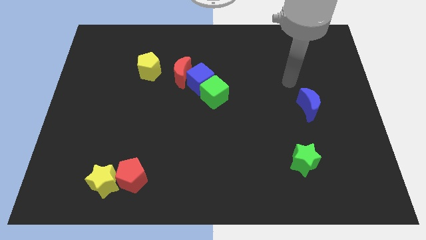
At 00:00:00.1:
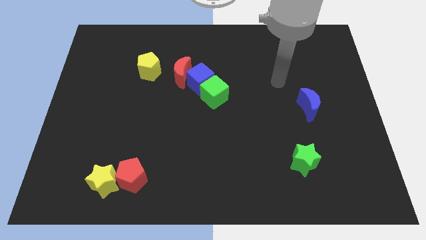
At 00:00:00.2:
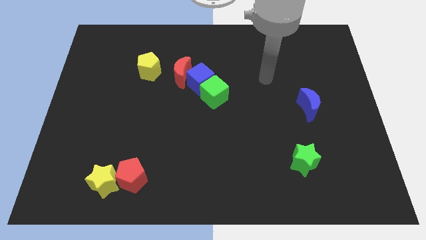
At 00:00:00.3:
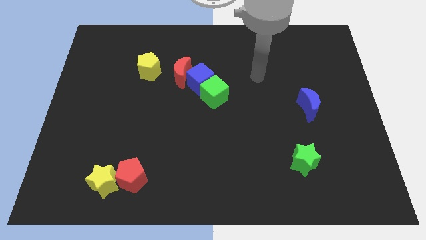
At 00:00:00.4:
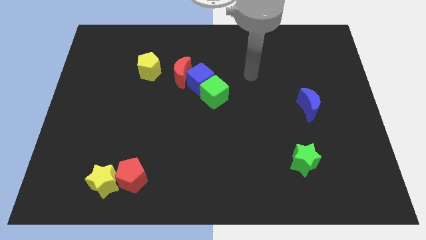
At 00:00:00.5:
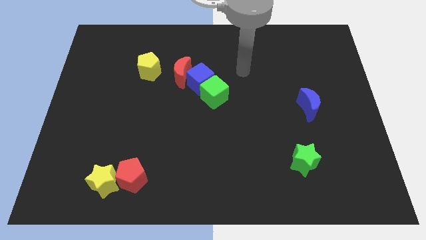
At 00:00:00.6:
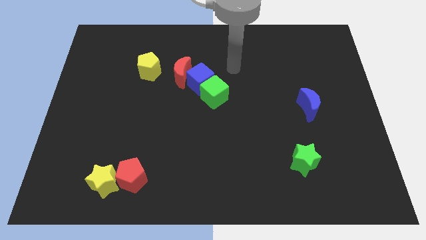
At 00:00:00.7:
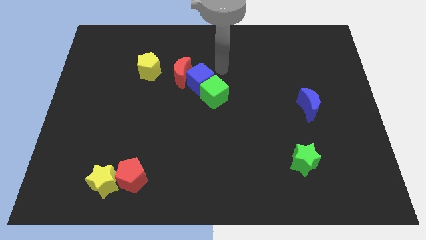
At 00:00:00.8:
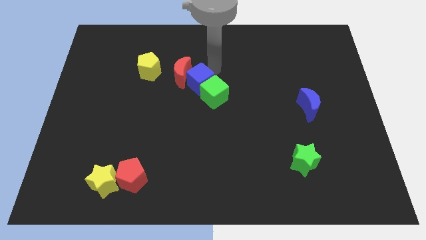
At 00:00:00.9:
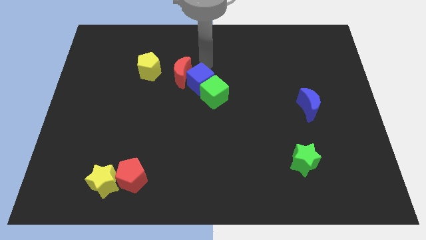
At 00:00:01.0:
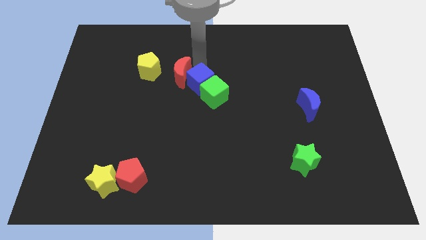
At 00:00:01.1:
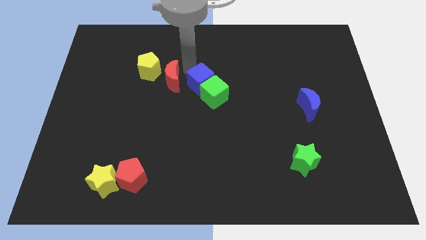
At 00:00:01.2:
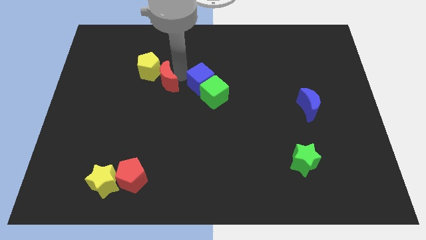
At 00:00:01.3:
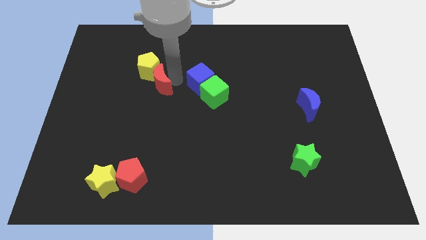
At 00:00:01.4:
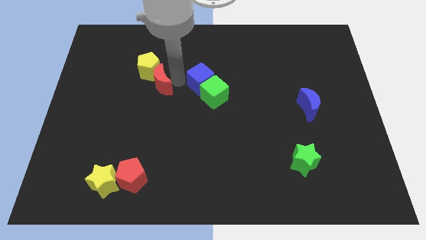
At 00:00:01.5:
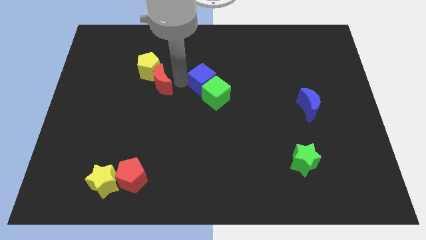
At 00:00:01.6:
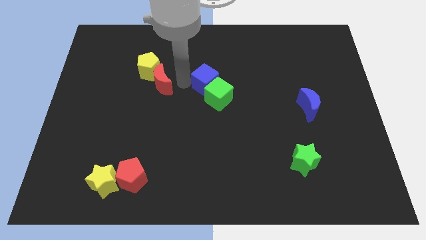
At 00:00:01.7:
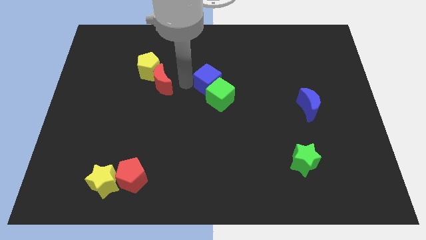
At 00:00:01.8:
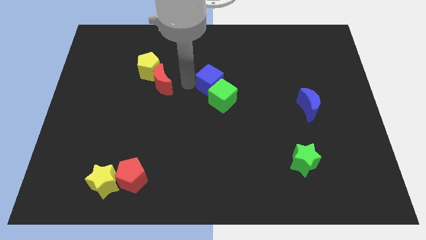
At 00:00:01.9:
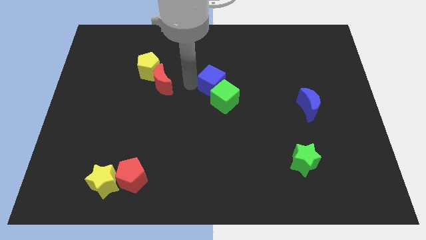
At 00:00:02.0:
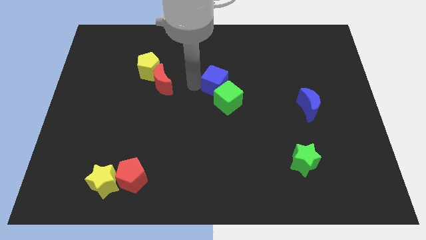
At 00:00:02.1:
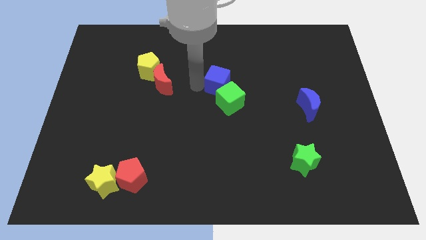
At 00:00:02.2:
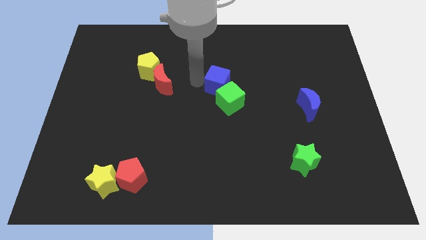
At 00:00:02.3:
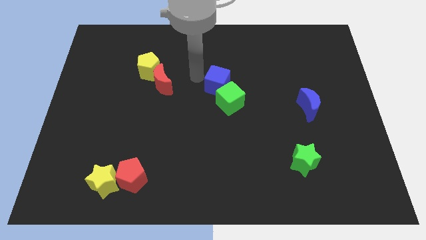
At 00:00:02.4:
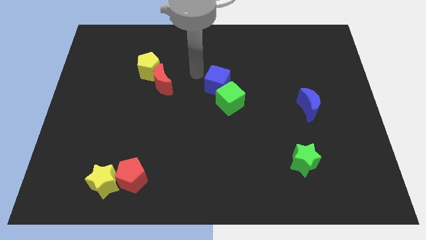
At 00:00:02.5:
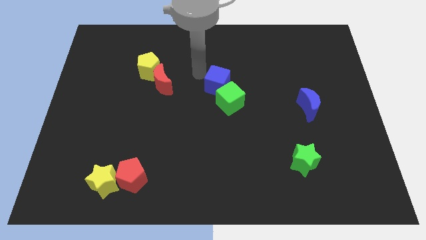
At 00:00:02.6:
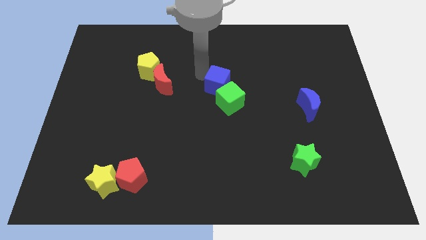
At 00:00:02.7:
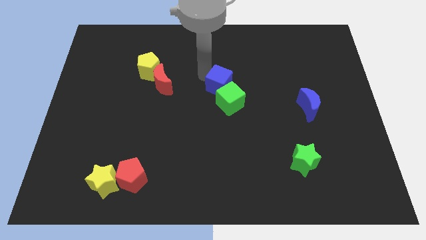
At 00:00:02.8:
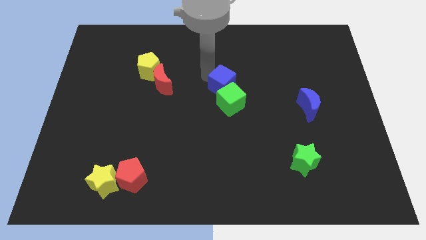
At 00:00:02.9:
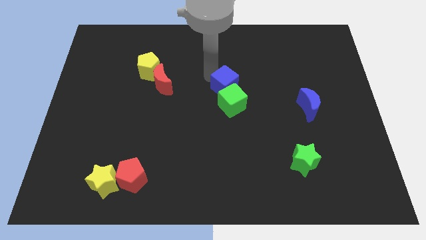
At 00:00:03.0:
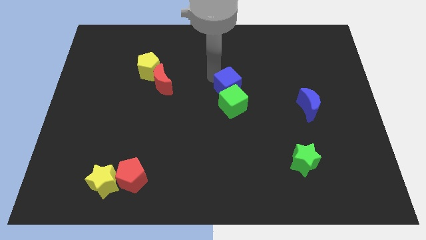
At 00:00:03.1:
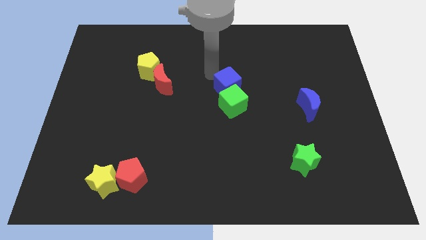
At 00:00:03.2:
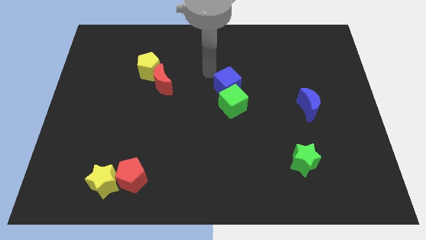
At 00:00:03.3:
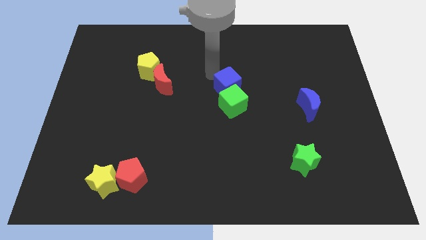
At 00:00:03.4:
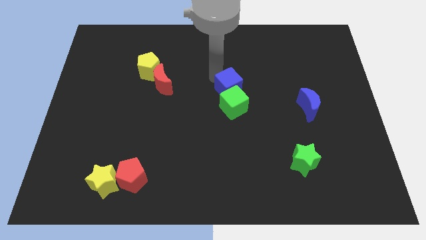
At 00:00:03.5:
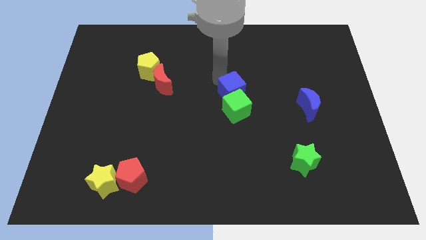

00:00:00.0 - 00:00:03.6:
move the blue cube downwards and to the right a little

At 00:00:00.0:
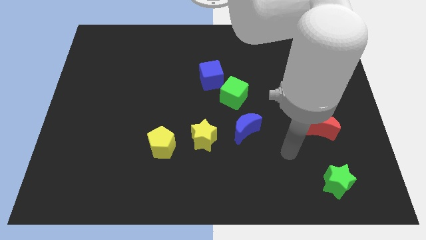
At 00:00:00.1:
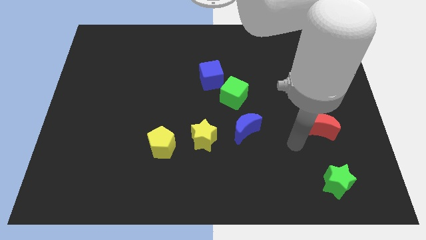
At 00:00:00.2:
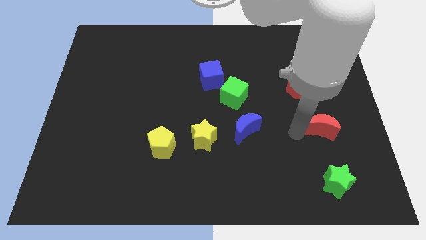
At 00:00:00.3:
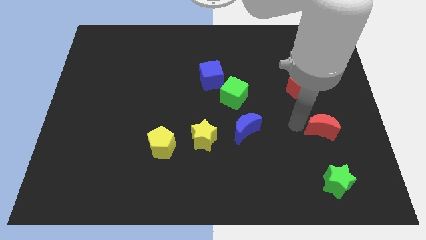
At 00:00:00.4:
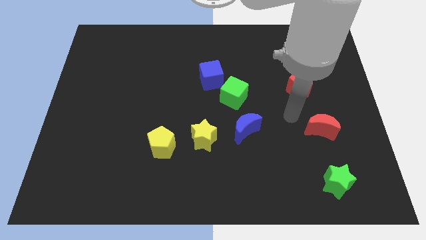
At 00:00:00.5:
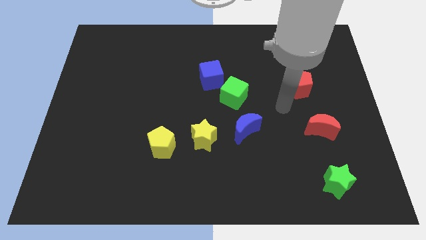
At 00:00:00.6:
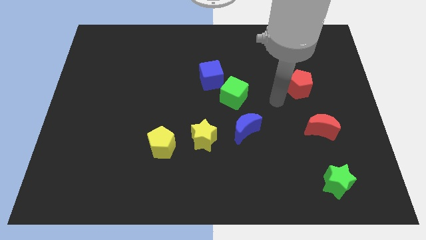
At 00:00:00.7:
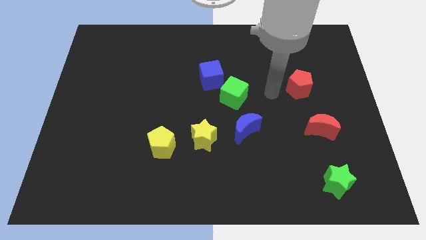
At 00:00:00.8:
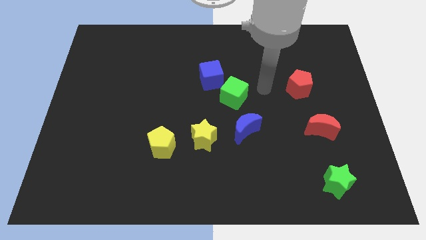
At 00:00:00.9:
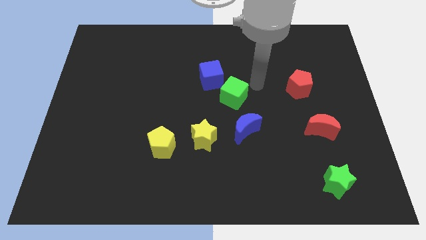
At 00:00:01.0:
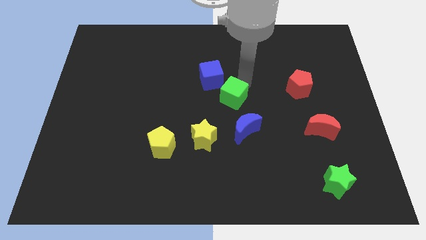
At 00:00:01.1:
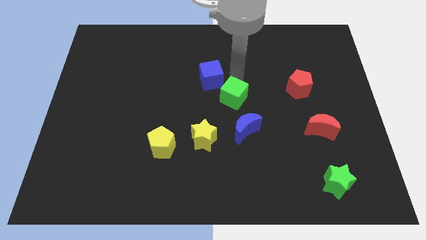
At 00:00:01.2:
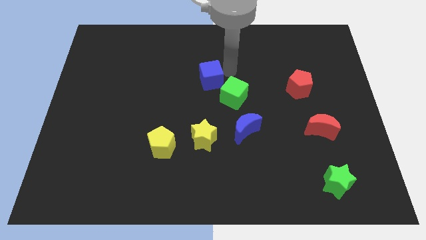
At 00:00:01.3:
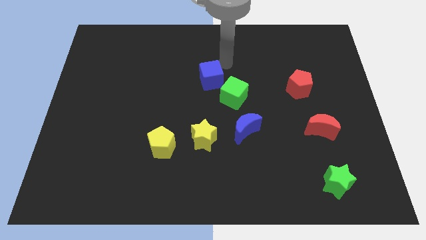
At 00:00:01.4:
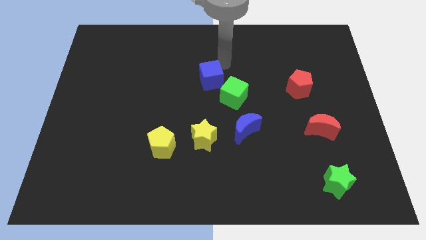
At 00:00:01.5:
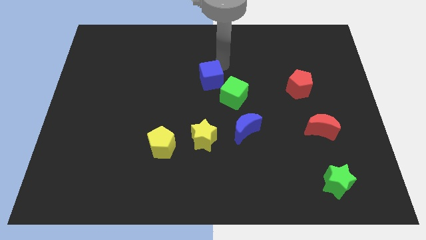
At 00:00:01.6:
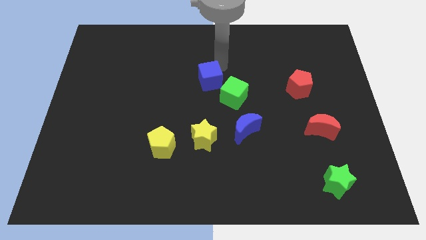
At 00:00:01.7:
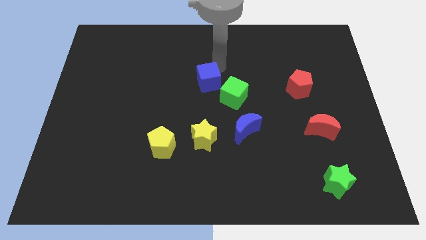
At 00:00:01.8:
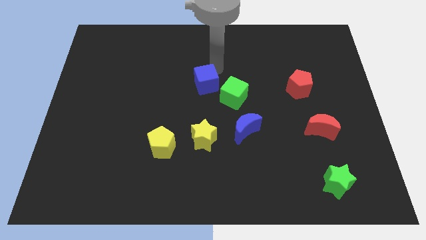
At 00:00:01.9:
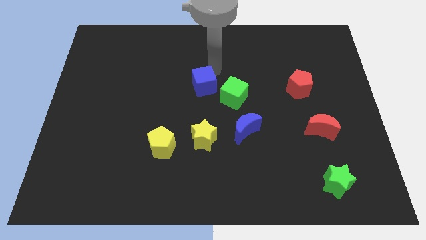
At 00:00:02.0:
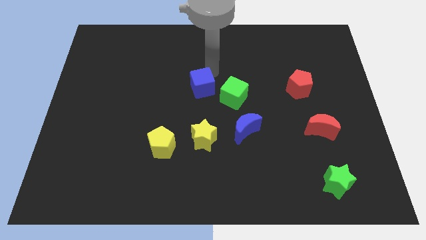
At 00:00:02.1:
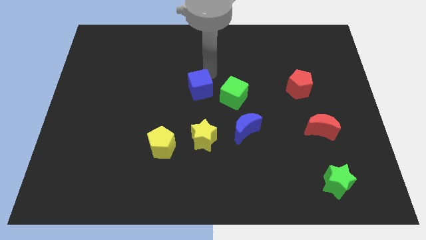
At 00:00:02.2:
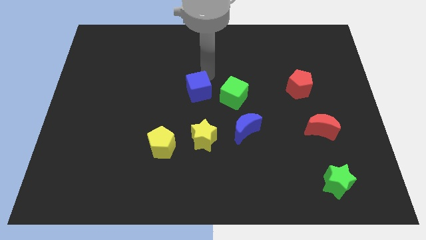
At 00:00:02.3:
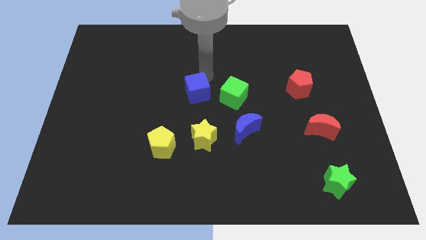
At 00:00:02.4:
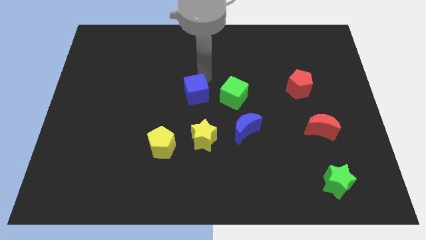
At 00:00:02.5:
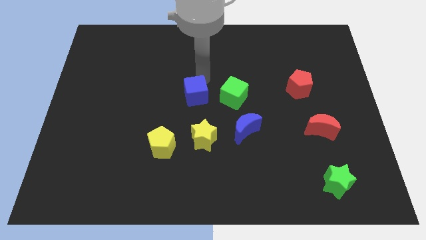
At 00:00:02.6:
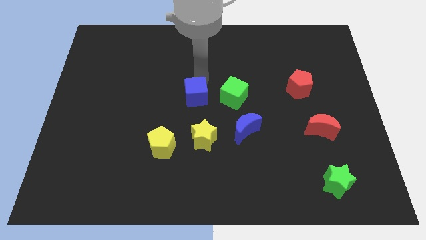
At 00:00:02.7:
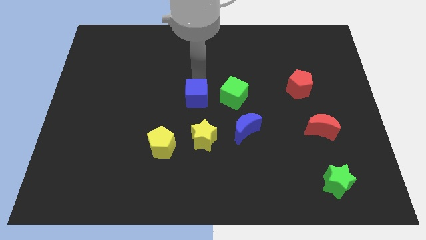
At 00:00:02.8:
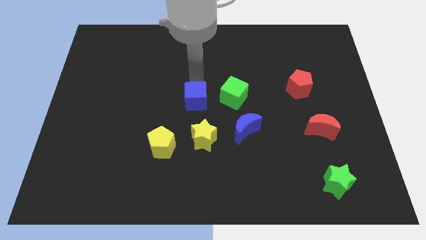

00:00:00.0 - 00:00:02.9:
slide the blue cube a little down and then to the left

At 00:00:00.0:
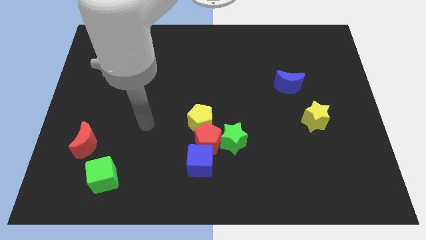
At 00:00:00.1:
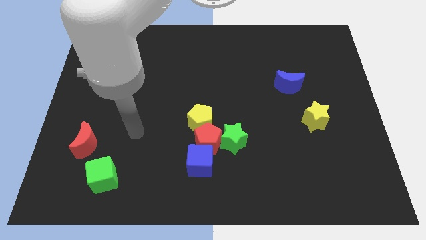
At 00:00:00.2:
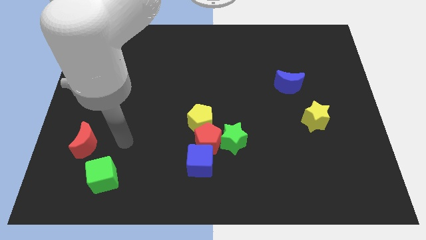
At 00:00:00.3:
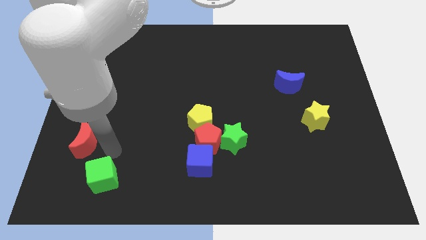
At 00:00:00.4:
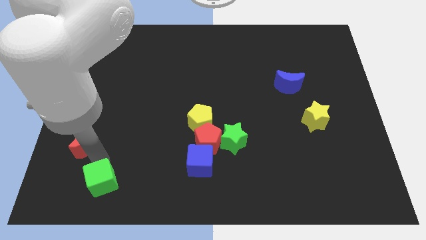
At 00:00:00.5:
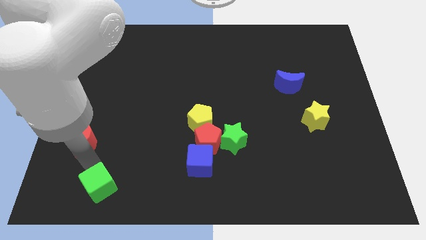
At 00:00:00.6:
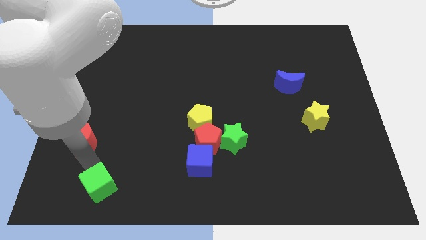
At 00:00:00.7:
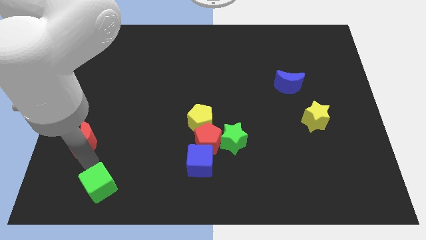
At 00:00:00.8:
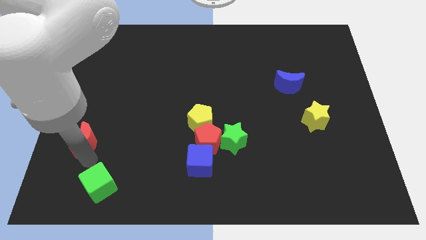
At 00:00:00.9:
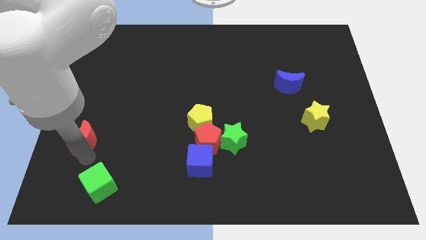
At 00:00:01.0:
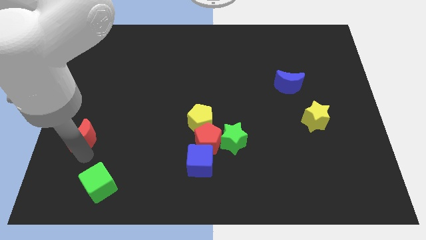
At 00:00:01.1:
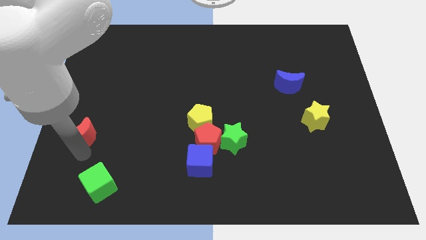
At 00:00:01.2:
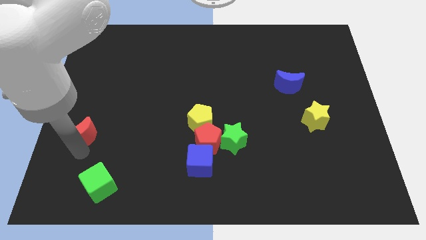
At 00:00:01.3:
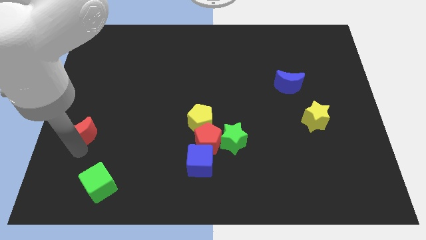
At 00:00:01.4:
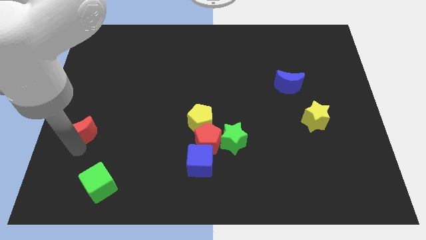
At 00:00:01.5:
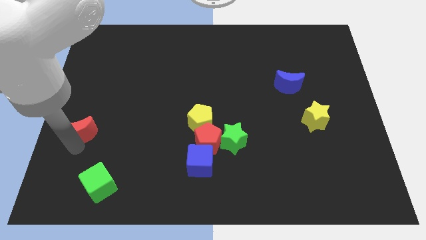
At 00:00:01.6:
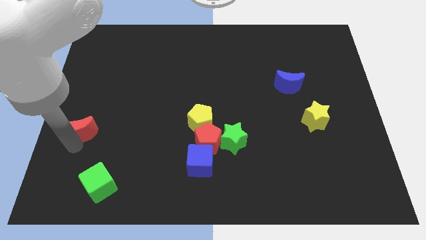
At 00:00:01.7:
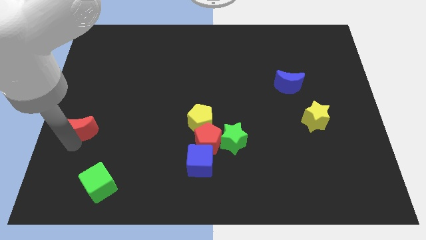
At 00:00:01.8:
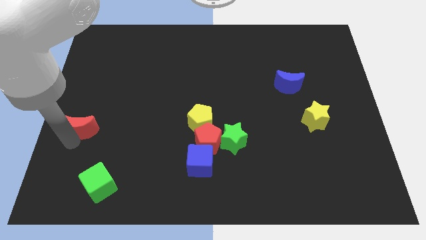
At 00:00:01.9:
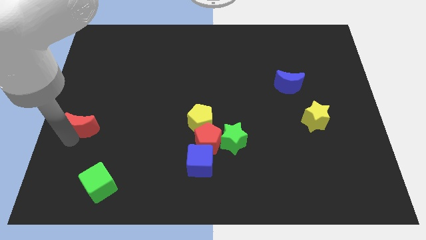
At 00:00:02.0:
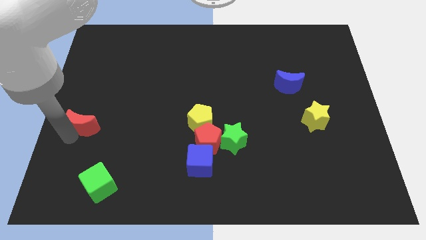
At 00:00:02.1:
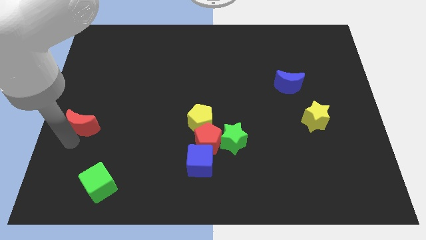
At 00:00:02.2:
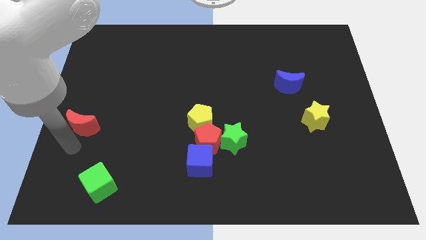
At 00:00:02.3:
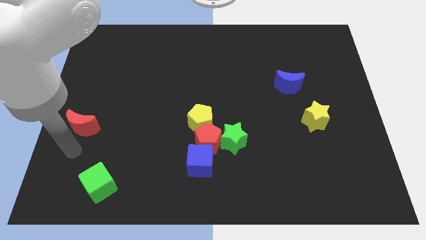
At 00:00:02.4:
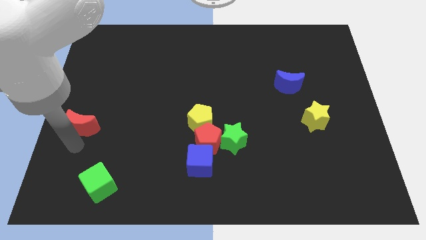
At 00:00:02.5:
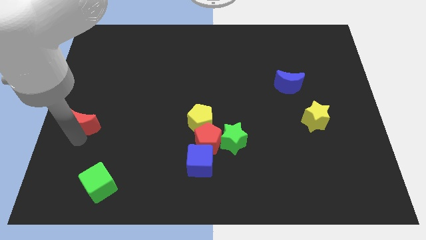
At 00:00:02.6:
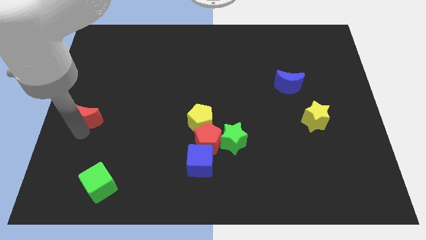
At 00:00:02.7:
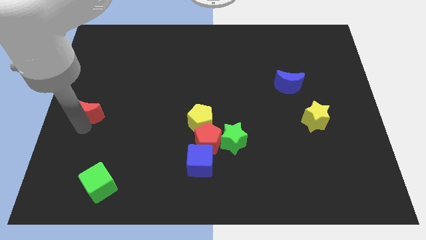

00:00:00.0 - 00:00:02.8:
push the red moon up slightly
